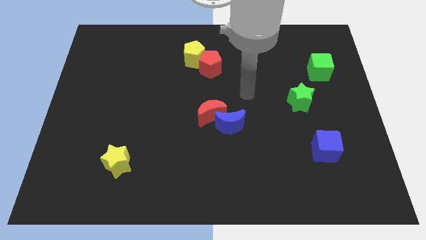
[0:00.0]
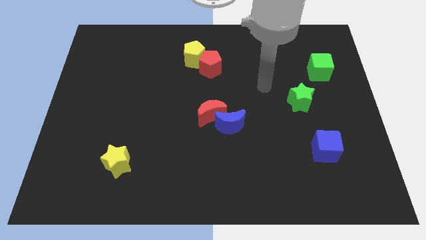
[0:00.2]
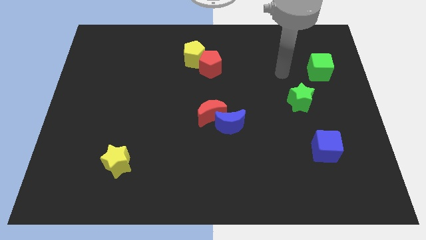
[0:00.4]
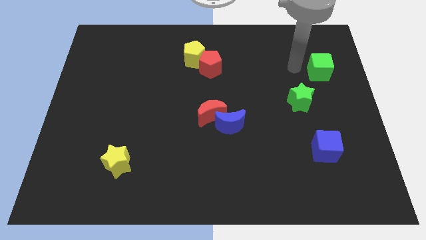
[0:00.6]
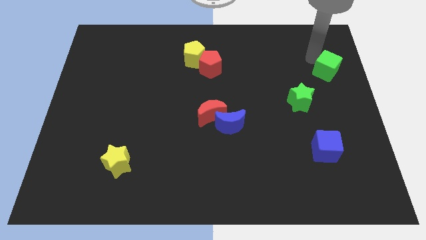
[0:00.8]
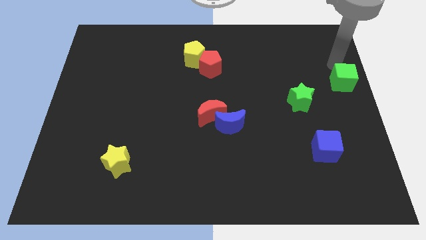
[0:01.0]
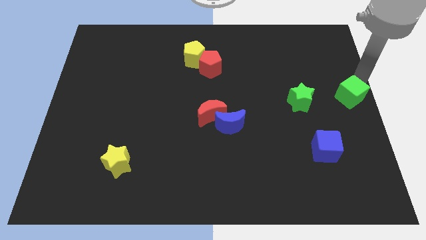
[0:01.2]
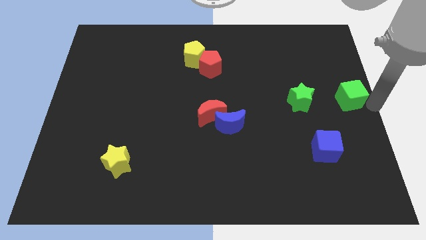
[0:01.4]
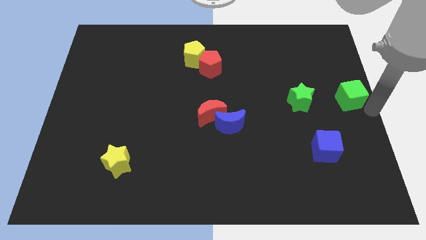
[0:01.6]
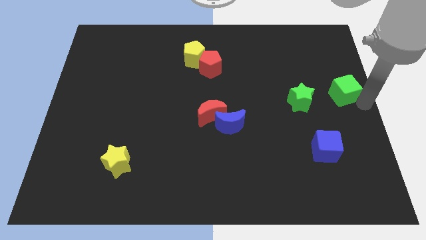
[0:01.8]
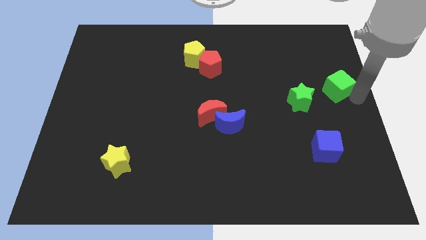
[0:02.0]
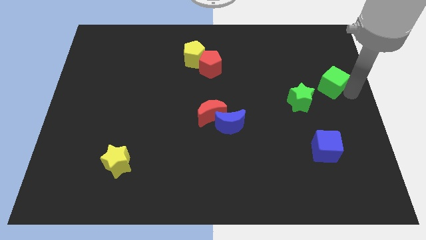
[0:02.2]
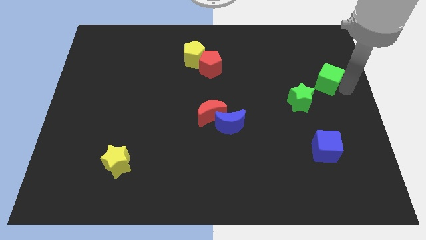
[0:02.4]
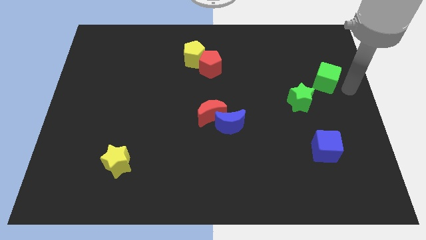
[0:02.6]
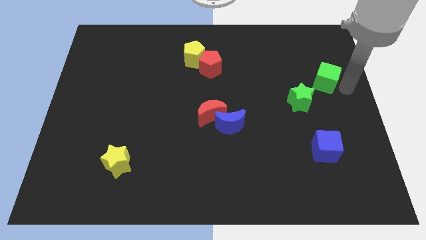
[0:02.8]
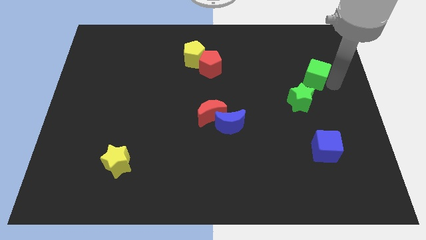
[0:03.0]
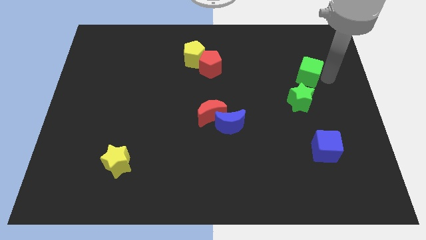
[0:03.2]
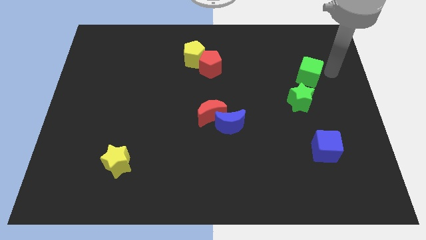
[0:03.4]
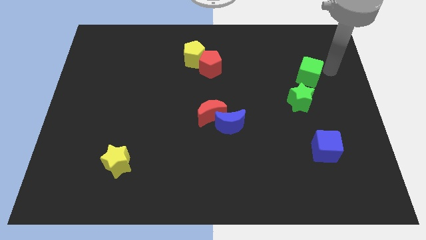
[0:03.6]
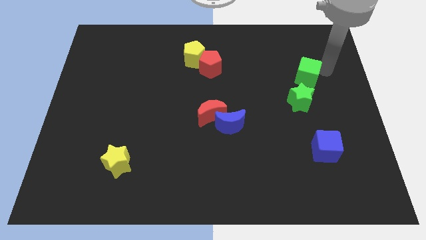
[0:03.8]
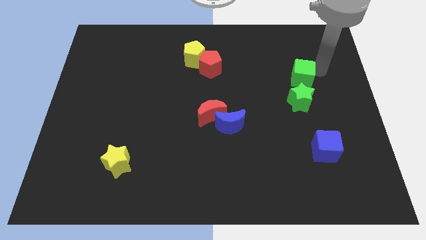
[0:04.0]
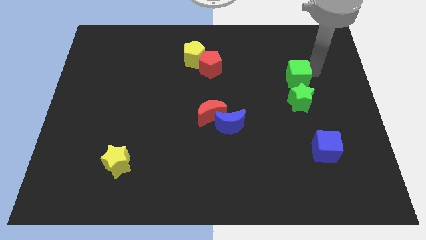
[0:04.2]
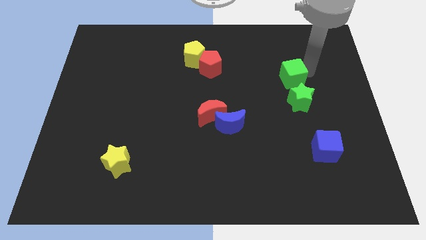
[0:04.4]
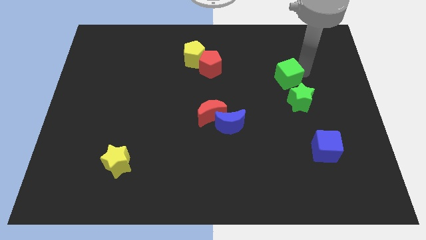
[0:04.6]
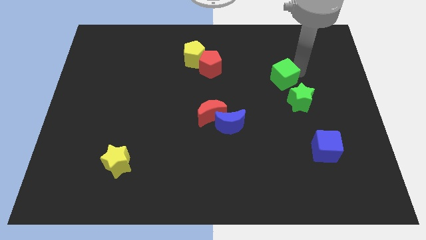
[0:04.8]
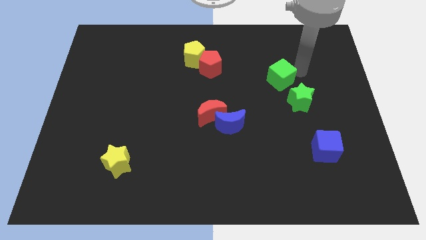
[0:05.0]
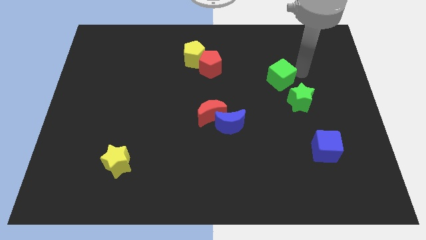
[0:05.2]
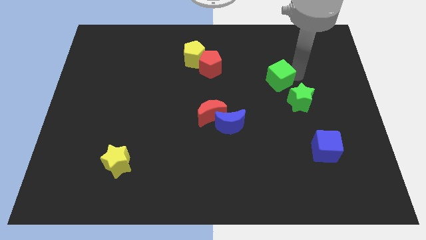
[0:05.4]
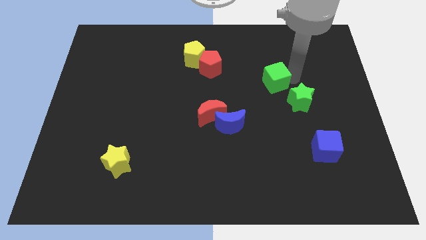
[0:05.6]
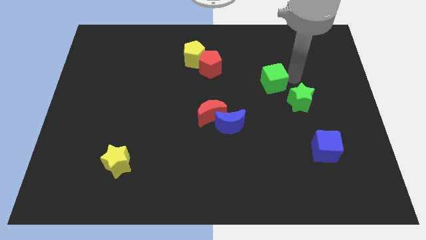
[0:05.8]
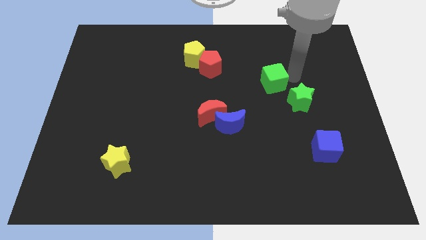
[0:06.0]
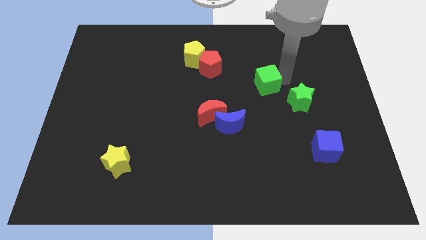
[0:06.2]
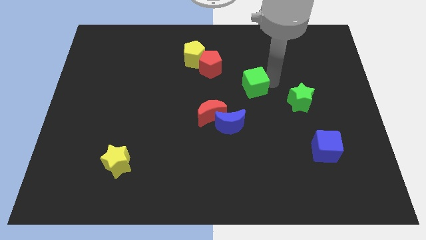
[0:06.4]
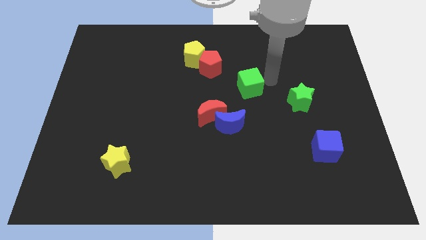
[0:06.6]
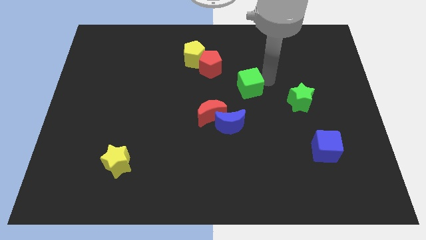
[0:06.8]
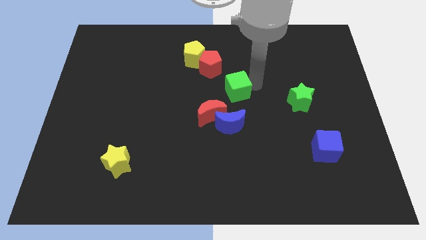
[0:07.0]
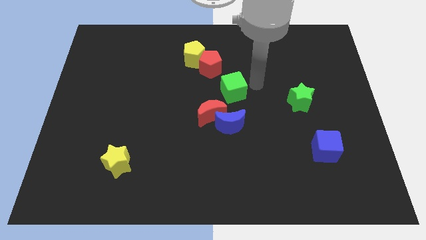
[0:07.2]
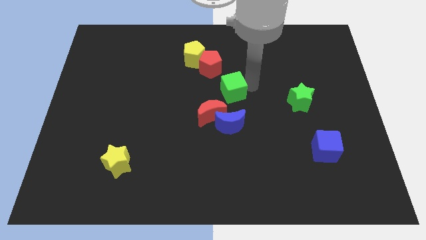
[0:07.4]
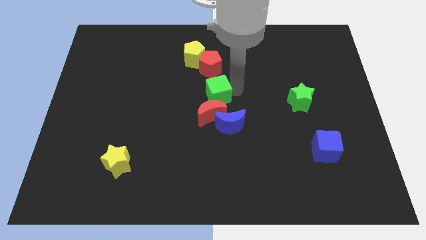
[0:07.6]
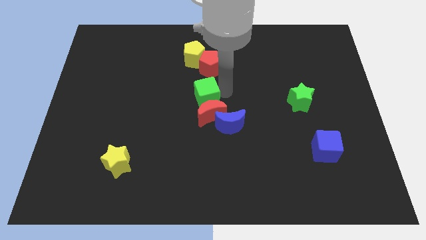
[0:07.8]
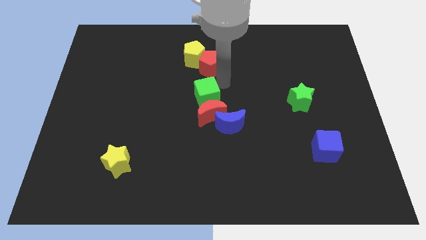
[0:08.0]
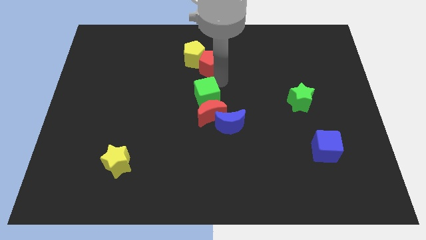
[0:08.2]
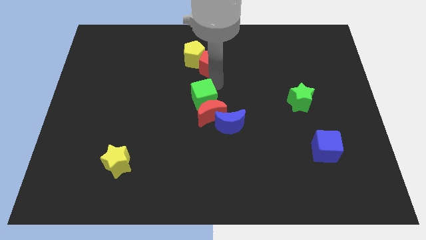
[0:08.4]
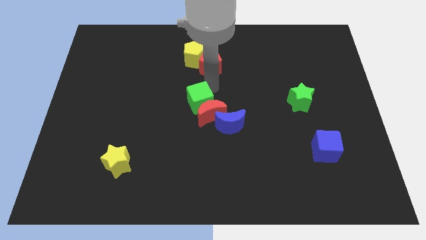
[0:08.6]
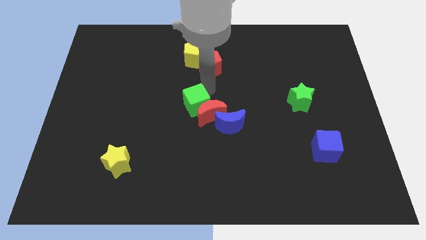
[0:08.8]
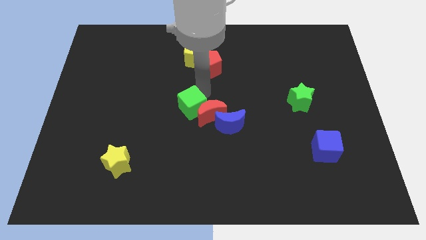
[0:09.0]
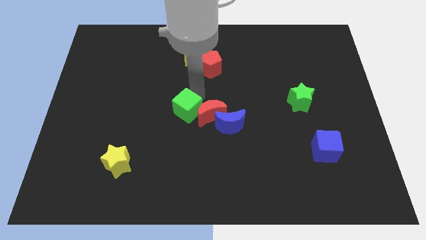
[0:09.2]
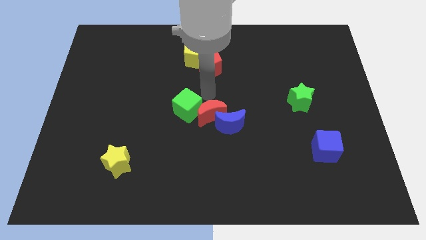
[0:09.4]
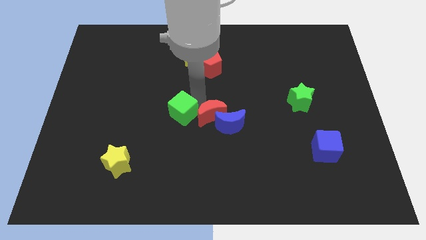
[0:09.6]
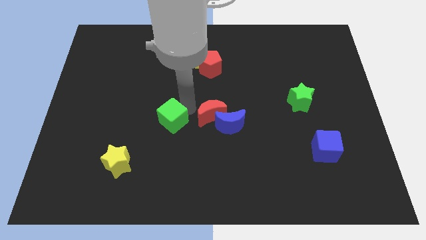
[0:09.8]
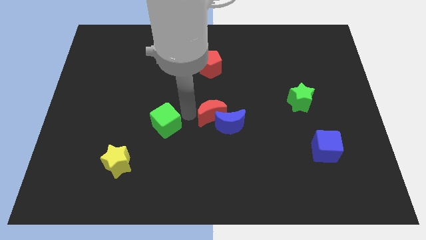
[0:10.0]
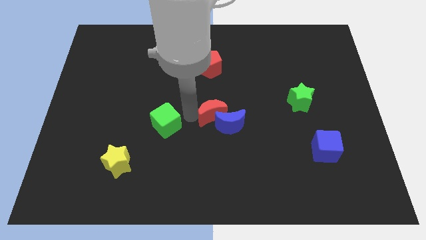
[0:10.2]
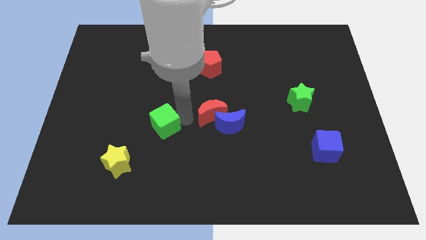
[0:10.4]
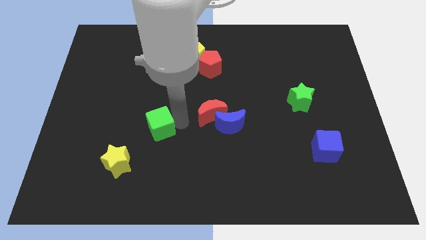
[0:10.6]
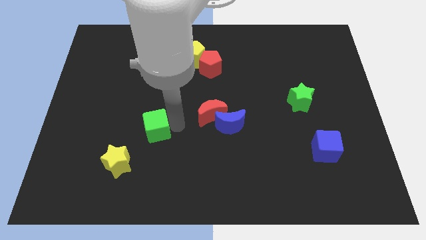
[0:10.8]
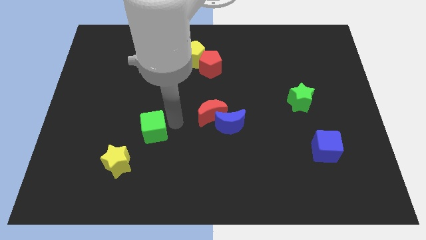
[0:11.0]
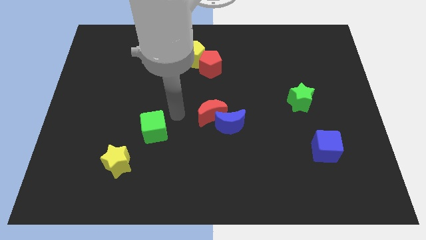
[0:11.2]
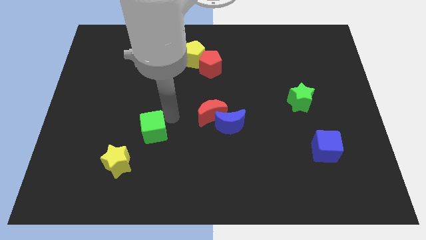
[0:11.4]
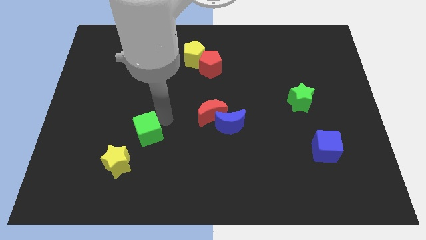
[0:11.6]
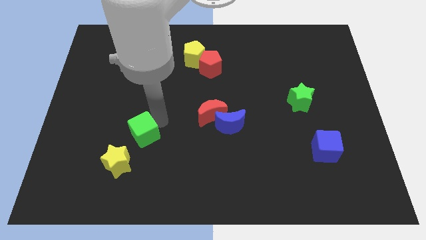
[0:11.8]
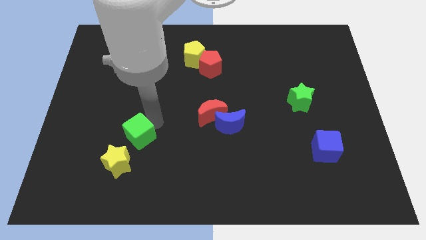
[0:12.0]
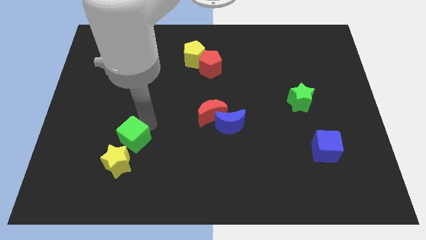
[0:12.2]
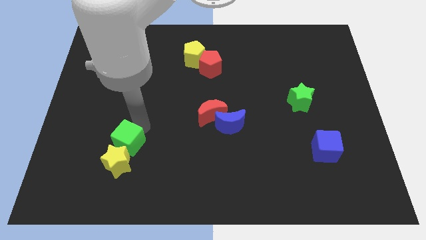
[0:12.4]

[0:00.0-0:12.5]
push the green cube to the yellow star

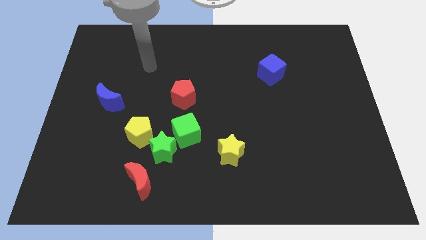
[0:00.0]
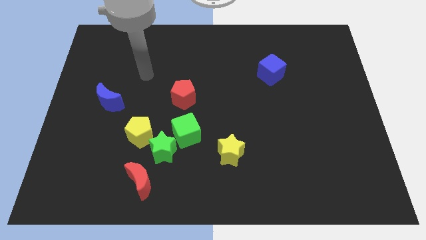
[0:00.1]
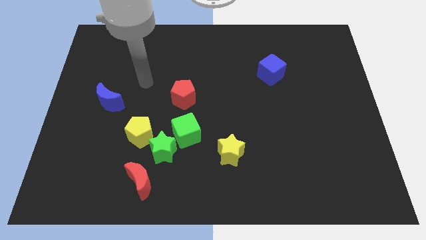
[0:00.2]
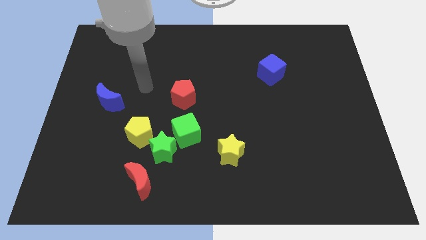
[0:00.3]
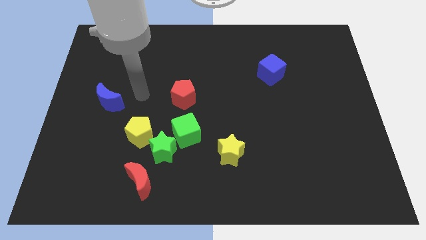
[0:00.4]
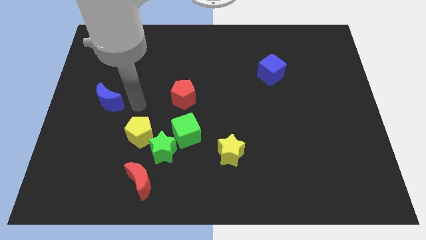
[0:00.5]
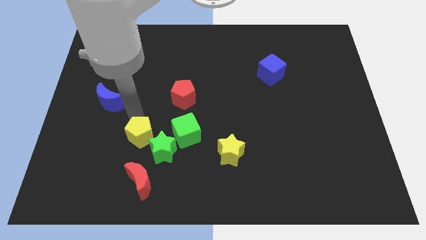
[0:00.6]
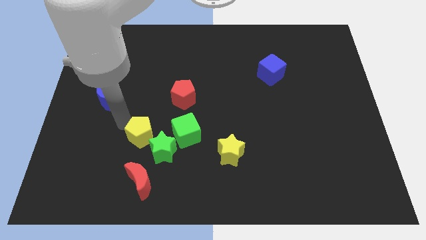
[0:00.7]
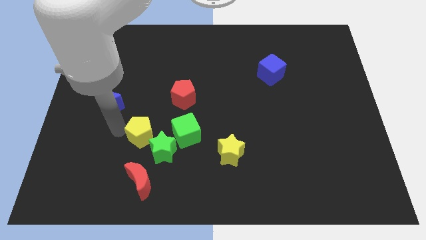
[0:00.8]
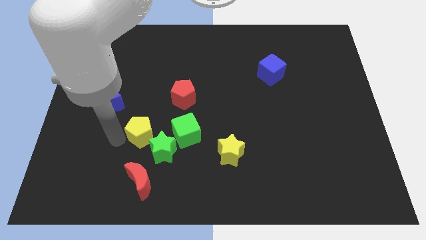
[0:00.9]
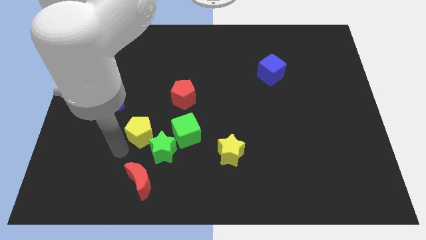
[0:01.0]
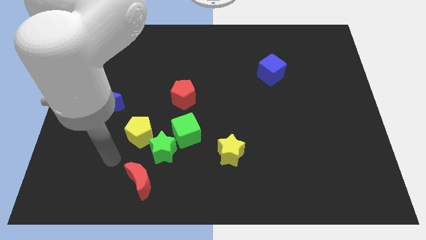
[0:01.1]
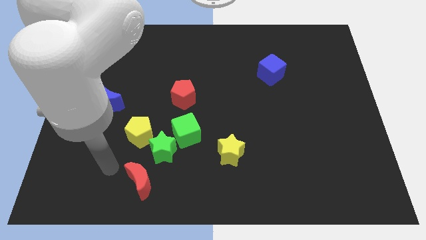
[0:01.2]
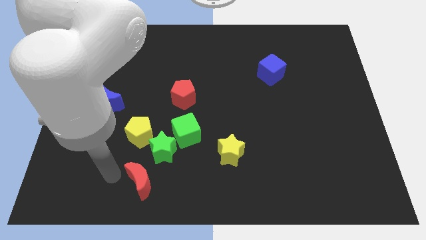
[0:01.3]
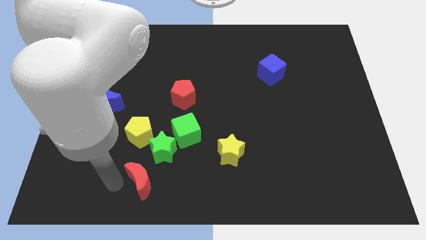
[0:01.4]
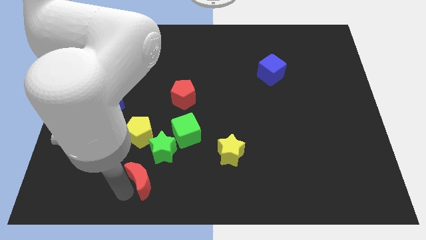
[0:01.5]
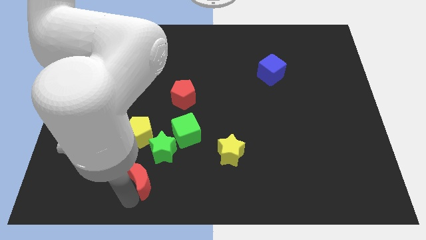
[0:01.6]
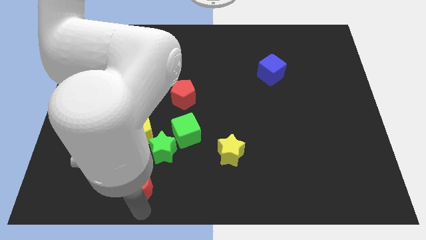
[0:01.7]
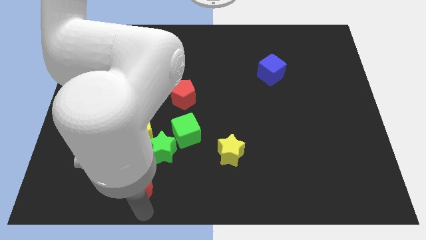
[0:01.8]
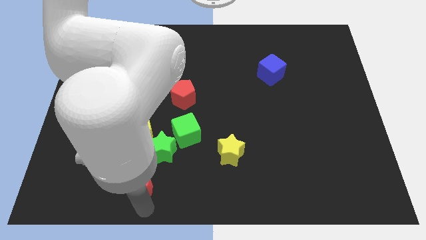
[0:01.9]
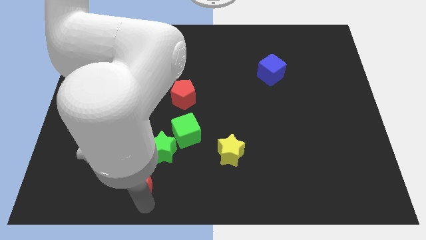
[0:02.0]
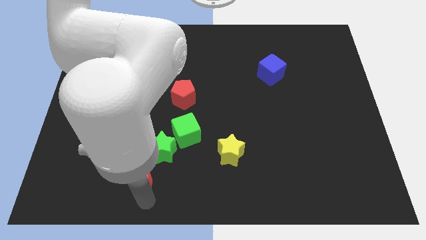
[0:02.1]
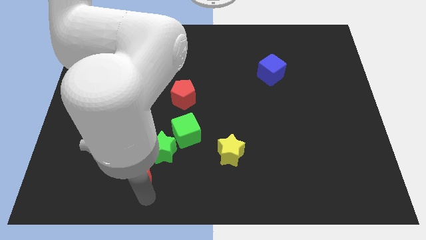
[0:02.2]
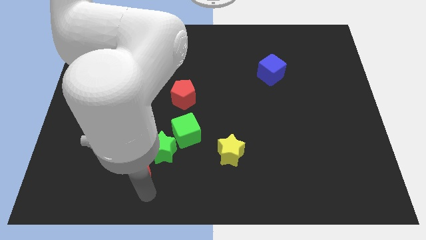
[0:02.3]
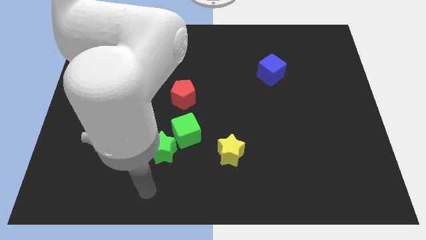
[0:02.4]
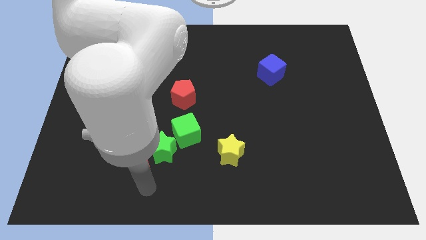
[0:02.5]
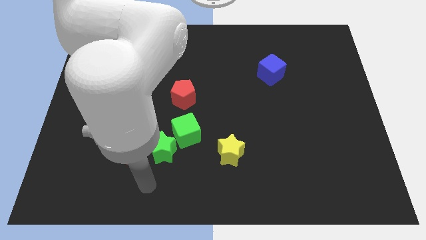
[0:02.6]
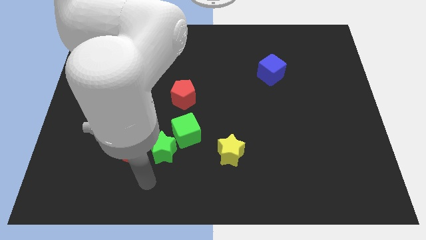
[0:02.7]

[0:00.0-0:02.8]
put the red moon close to the yellow pentagon
